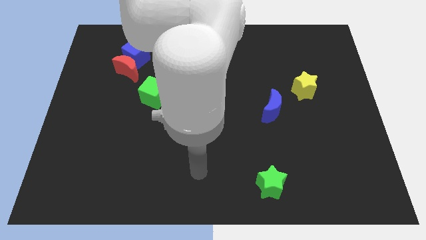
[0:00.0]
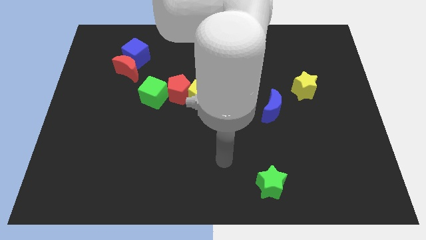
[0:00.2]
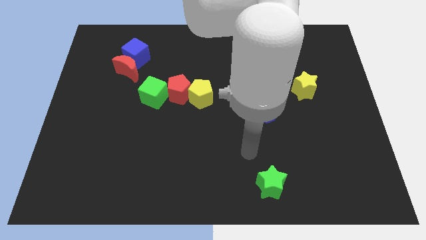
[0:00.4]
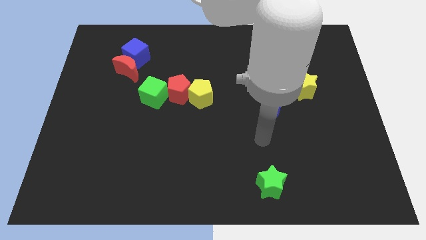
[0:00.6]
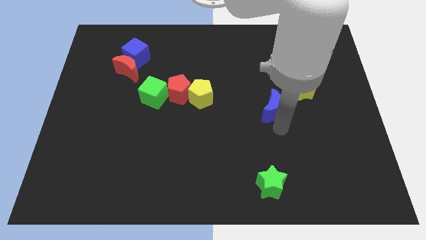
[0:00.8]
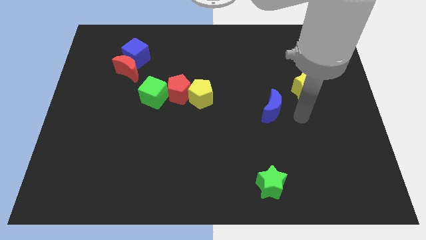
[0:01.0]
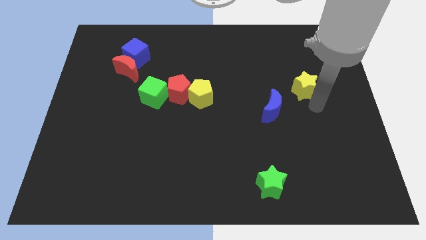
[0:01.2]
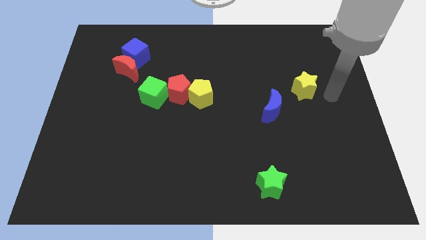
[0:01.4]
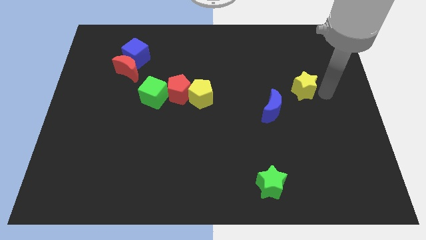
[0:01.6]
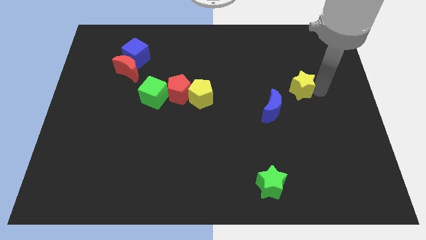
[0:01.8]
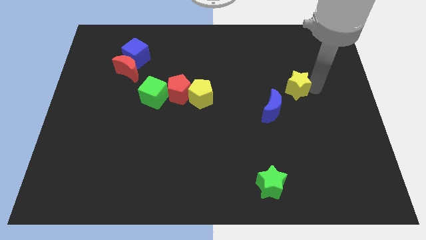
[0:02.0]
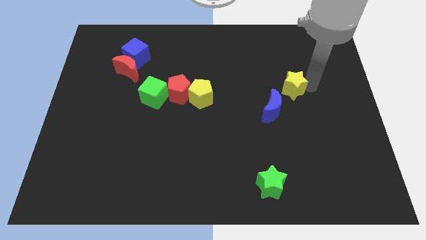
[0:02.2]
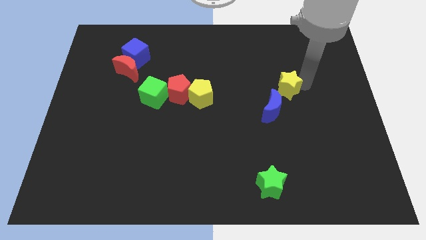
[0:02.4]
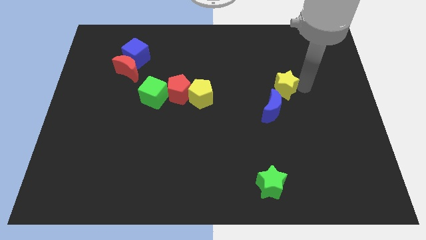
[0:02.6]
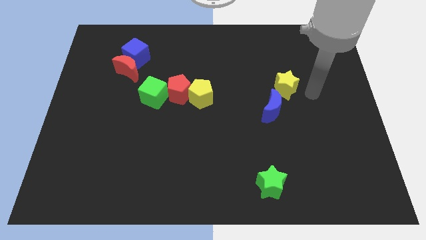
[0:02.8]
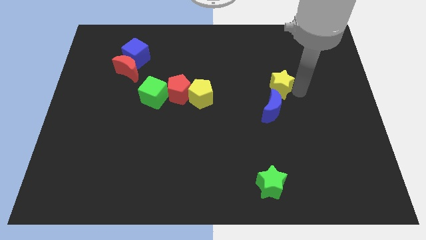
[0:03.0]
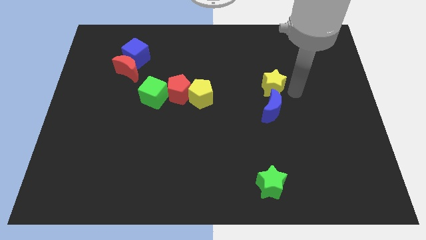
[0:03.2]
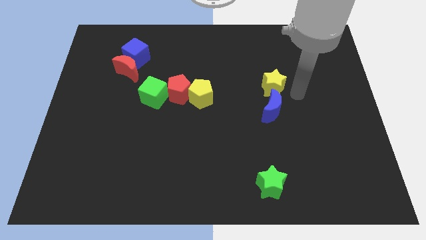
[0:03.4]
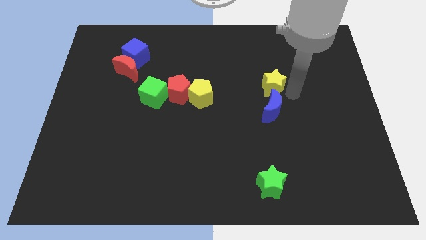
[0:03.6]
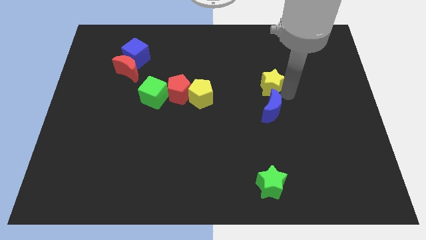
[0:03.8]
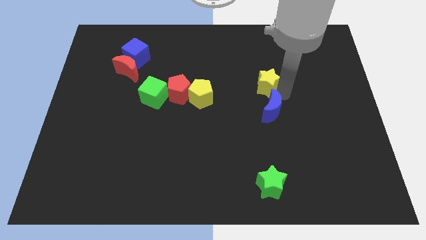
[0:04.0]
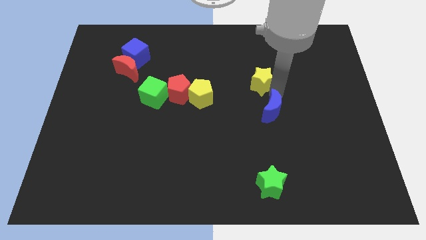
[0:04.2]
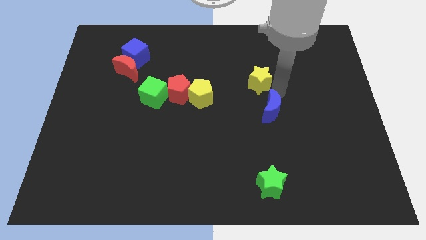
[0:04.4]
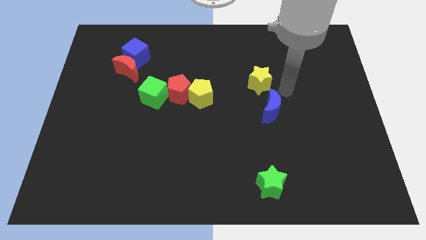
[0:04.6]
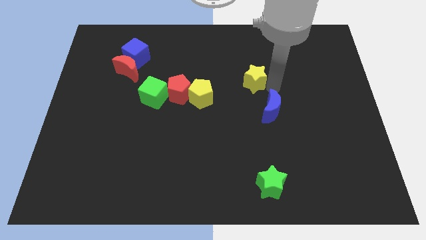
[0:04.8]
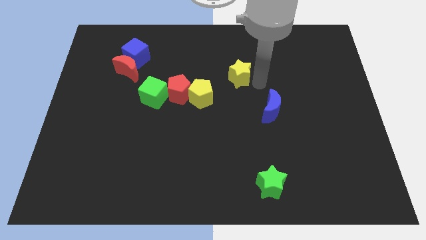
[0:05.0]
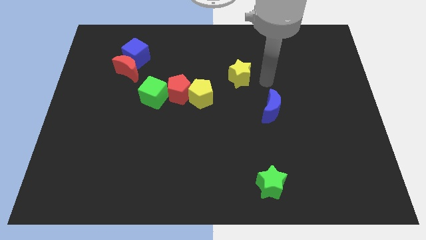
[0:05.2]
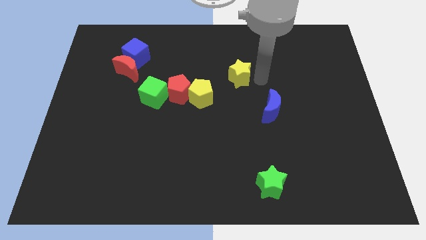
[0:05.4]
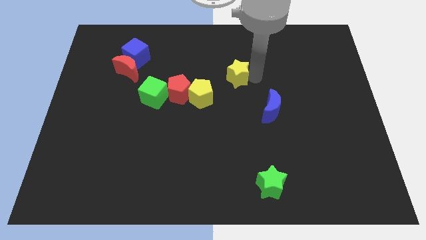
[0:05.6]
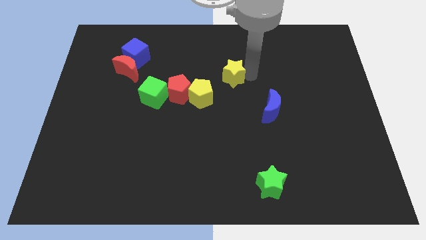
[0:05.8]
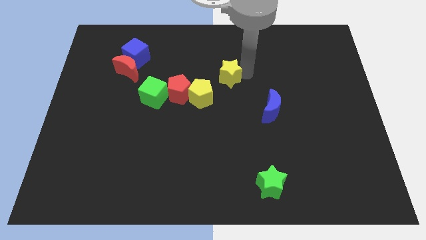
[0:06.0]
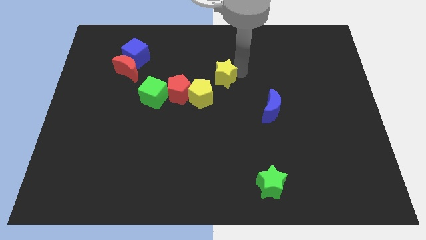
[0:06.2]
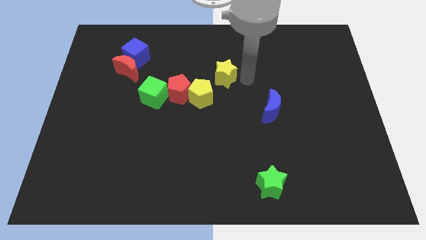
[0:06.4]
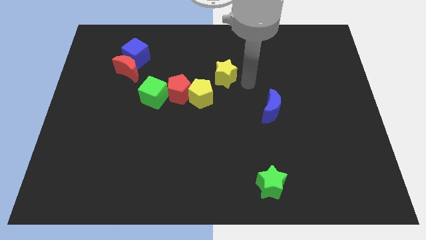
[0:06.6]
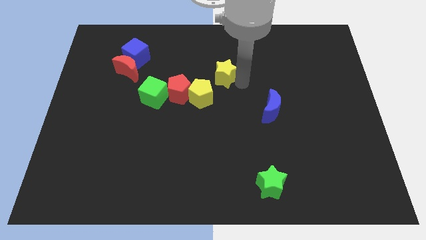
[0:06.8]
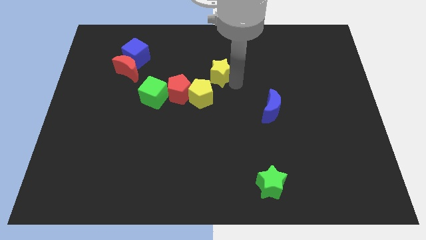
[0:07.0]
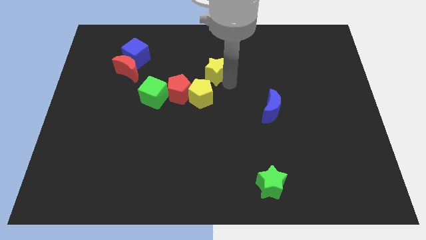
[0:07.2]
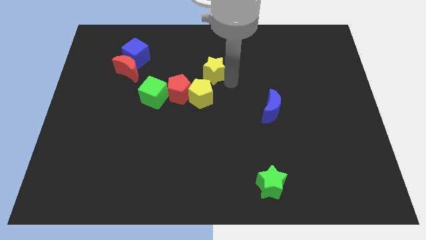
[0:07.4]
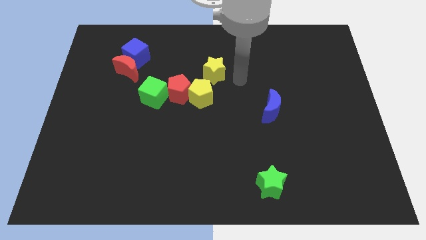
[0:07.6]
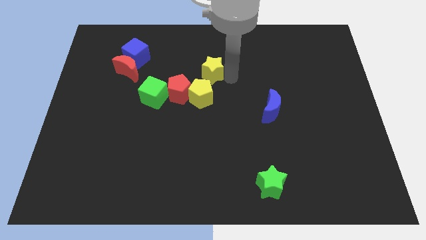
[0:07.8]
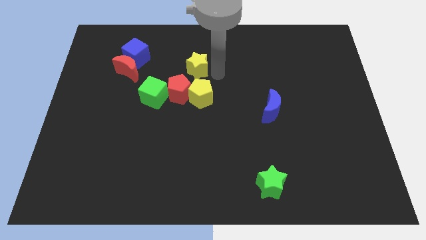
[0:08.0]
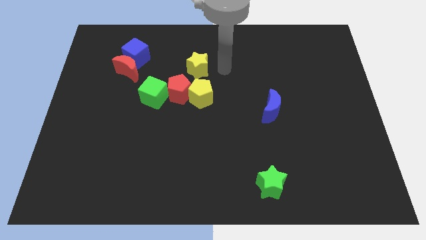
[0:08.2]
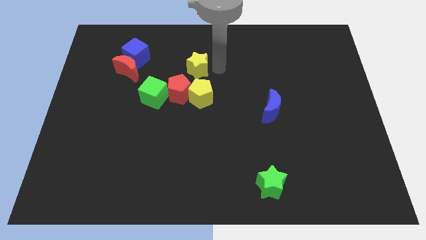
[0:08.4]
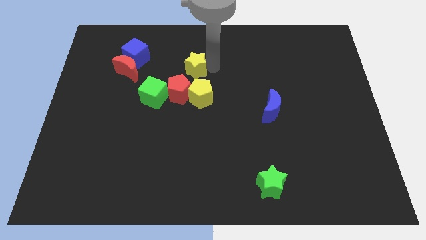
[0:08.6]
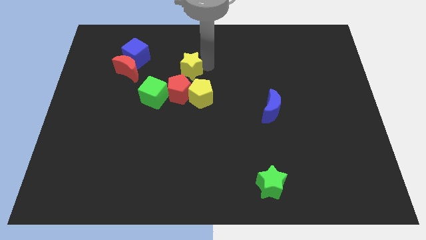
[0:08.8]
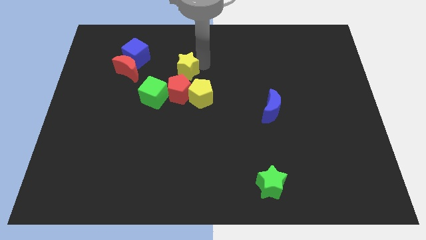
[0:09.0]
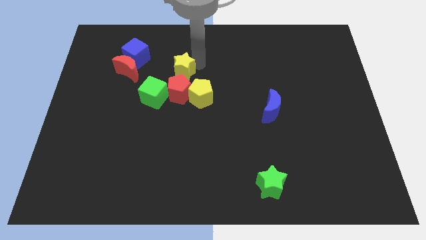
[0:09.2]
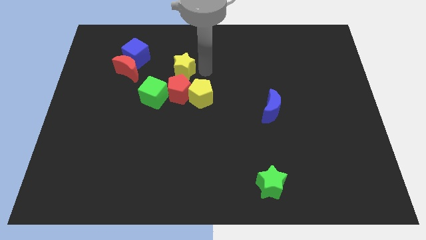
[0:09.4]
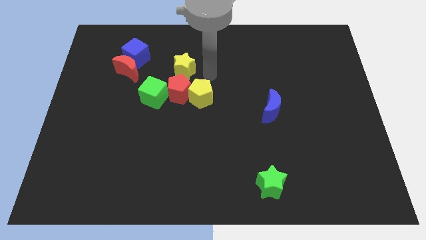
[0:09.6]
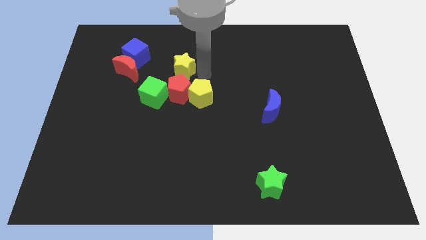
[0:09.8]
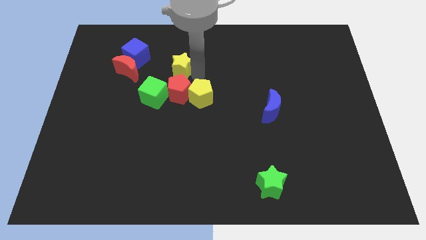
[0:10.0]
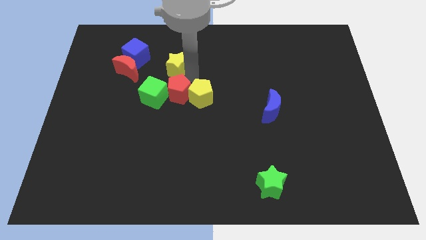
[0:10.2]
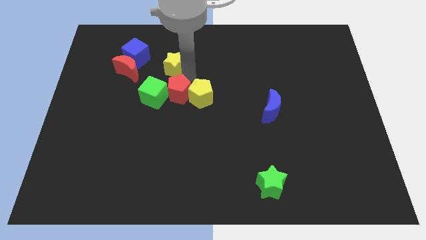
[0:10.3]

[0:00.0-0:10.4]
slide the yellow star to the top of the green cube

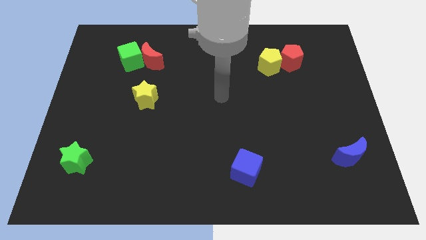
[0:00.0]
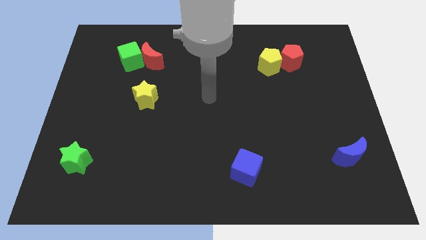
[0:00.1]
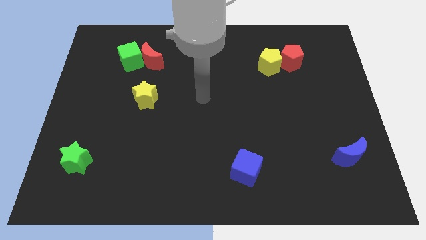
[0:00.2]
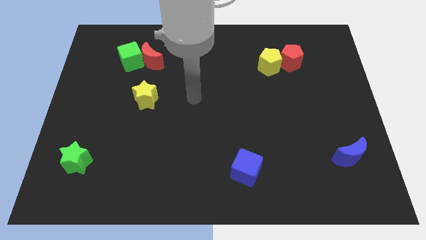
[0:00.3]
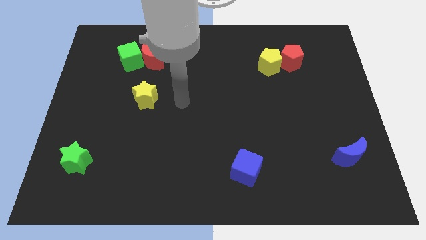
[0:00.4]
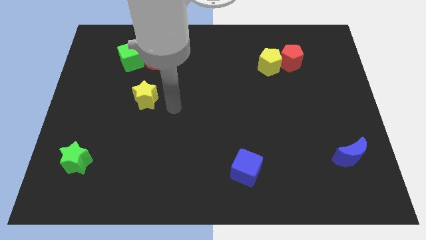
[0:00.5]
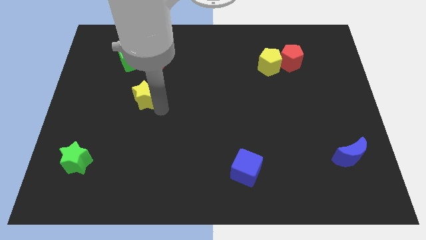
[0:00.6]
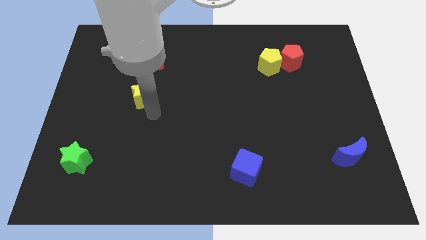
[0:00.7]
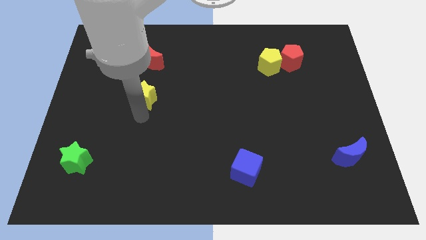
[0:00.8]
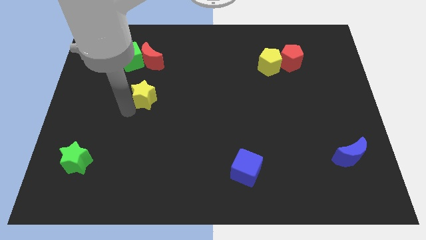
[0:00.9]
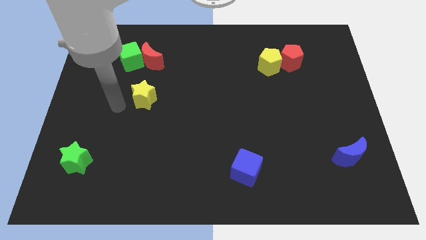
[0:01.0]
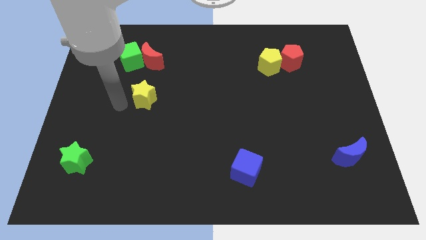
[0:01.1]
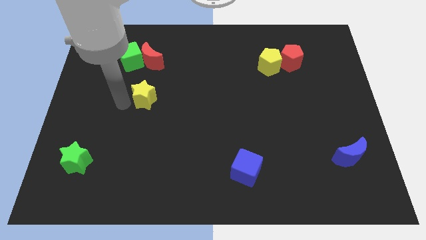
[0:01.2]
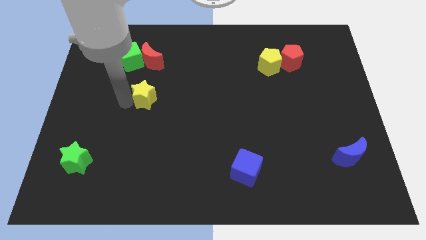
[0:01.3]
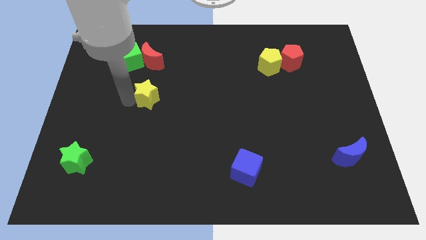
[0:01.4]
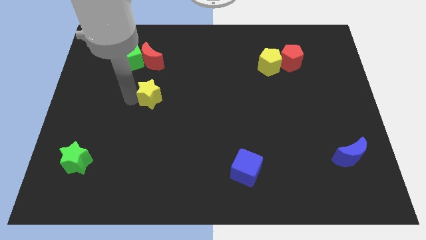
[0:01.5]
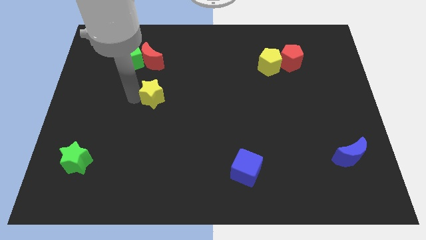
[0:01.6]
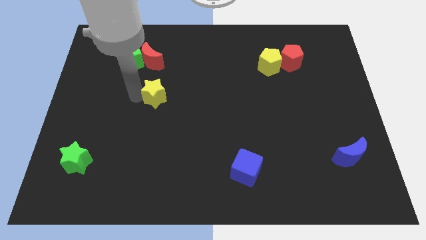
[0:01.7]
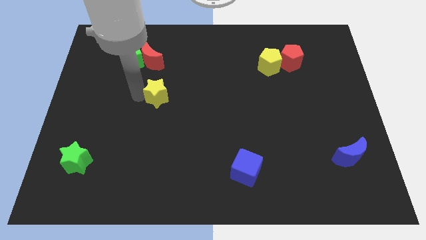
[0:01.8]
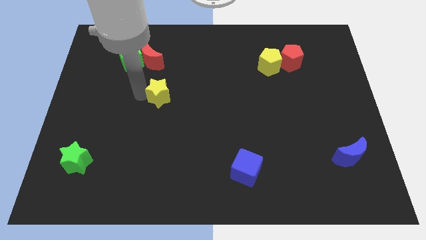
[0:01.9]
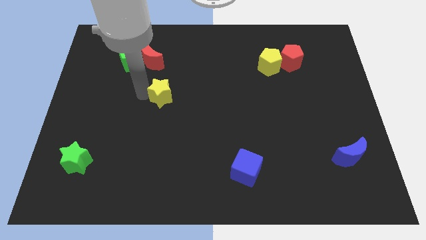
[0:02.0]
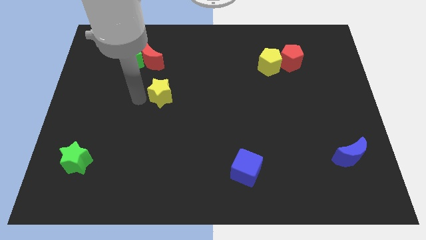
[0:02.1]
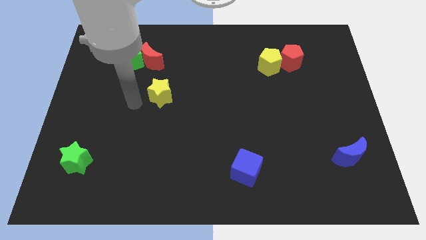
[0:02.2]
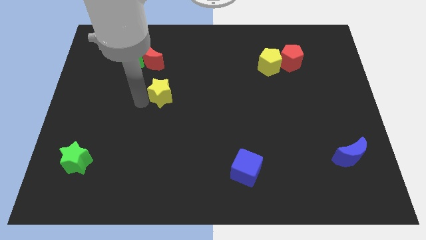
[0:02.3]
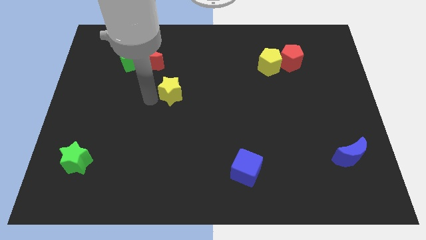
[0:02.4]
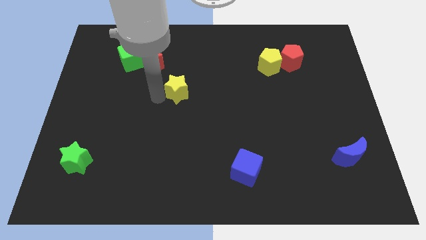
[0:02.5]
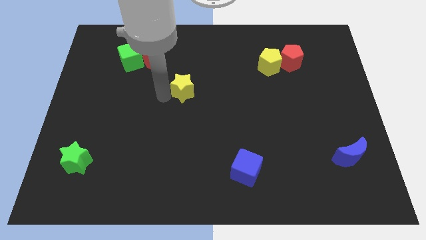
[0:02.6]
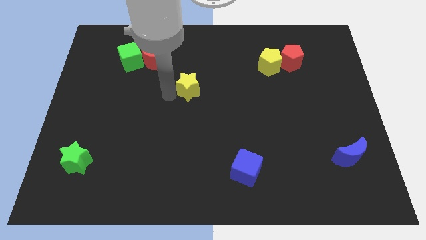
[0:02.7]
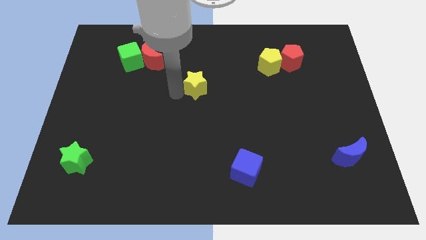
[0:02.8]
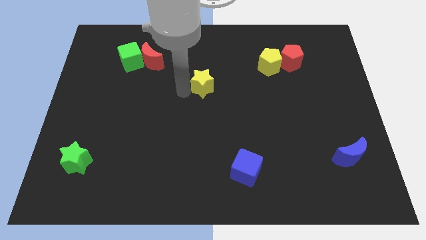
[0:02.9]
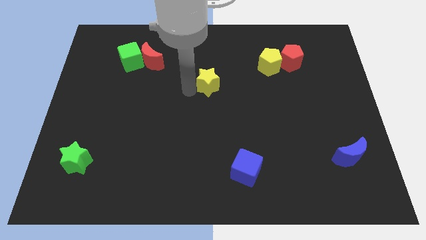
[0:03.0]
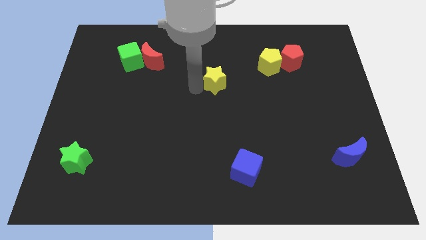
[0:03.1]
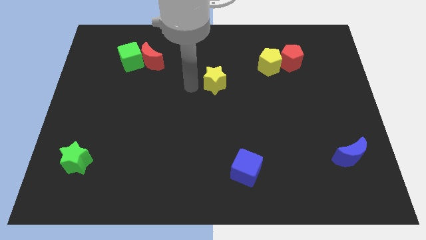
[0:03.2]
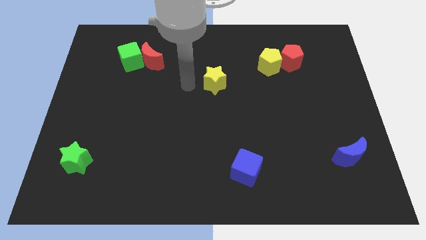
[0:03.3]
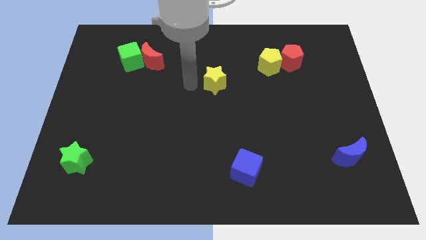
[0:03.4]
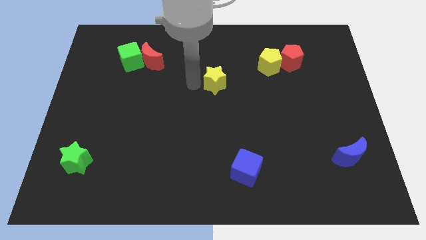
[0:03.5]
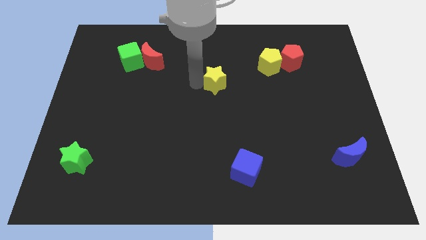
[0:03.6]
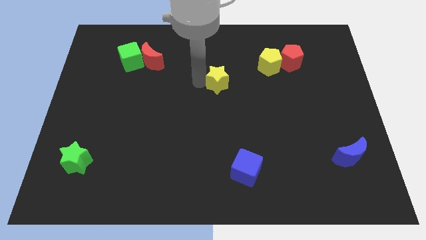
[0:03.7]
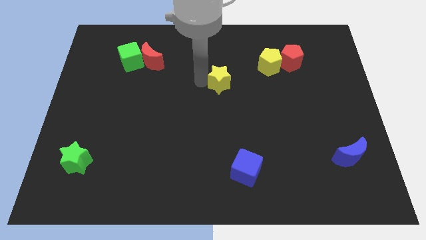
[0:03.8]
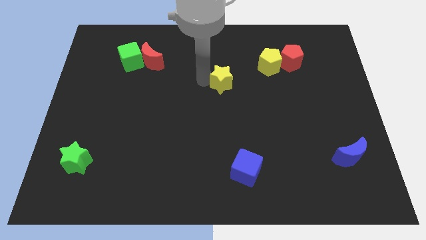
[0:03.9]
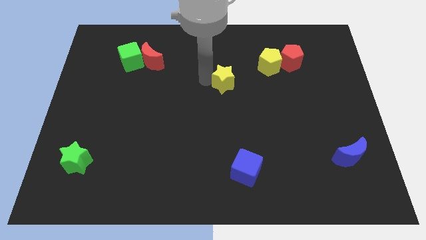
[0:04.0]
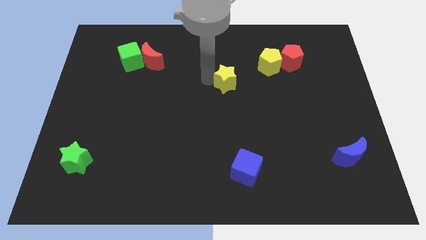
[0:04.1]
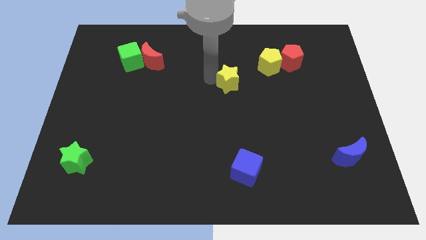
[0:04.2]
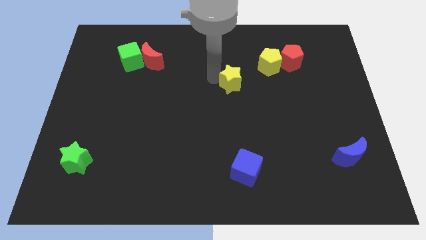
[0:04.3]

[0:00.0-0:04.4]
slide the yellow star diagonally down and to the left of the yellow pentagon
